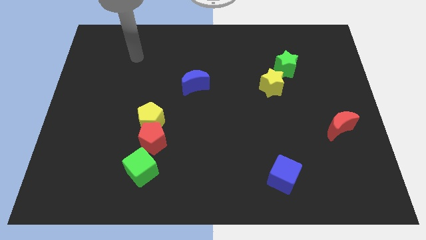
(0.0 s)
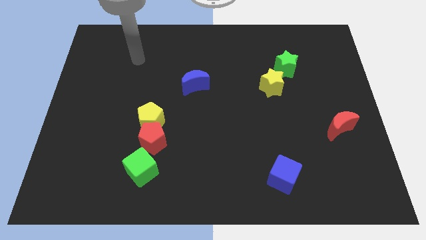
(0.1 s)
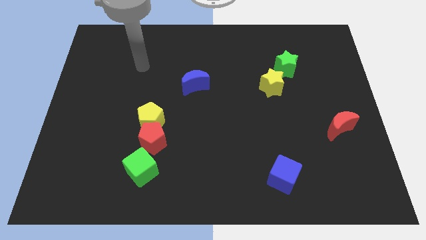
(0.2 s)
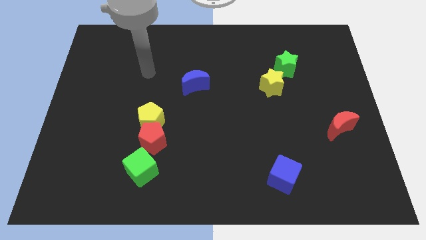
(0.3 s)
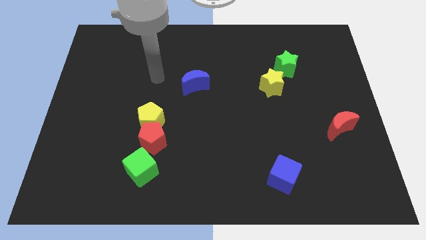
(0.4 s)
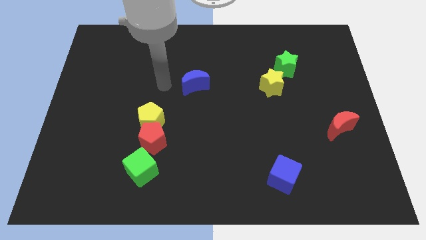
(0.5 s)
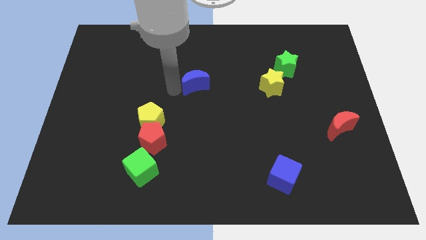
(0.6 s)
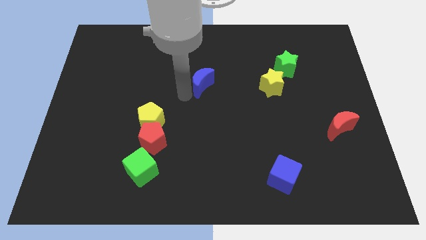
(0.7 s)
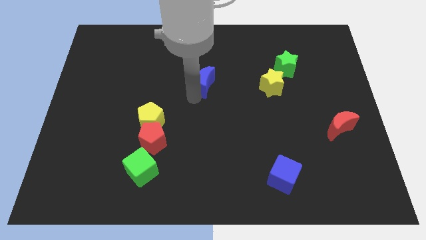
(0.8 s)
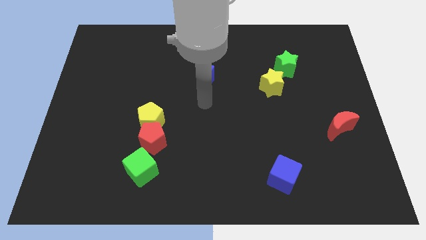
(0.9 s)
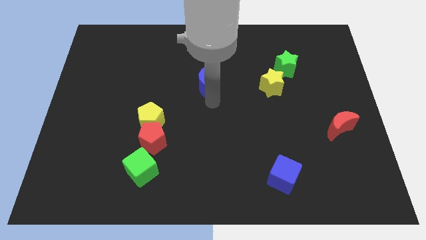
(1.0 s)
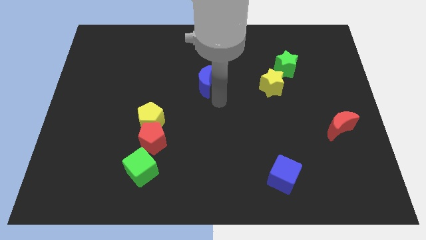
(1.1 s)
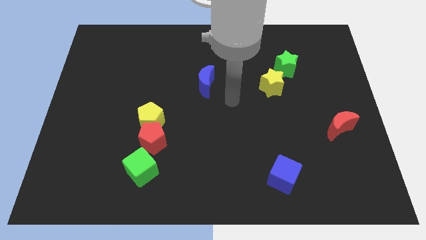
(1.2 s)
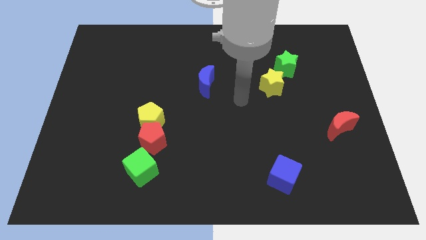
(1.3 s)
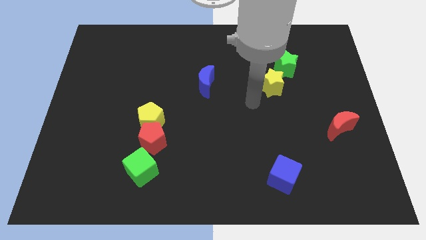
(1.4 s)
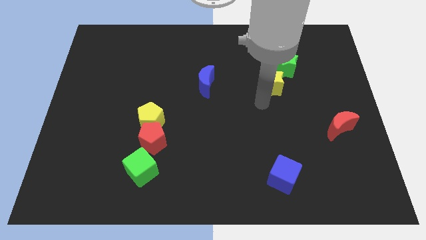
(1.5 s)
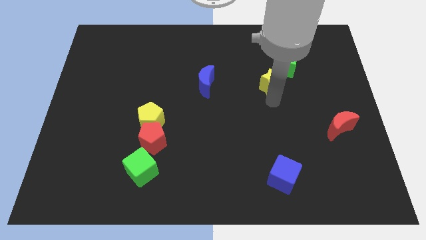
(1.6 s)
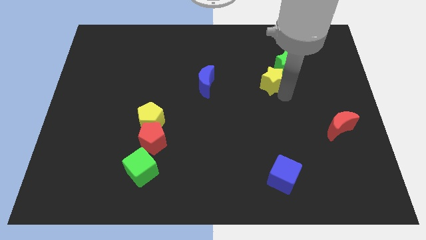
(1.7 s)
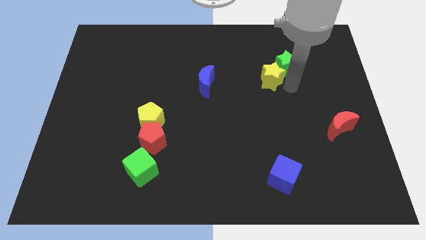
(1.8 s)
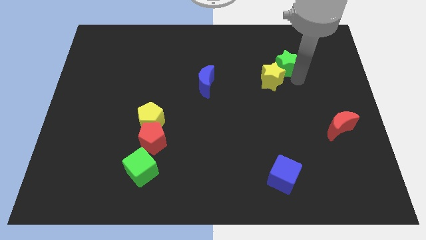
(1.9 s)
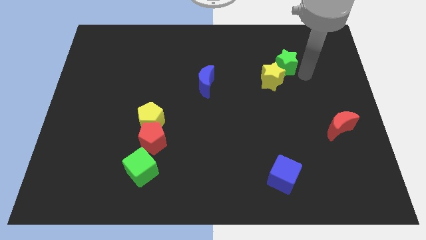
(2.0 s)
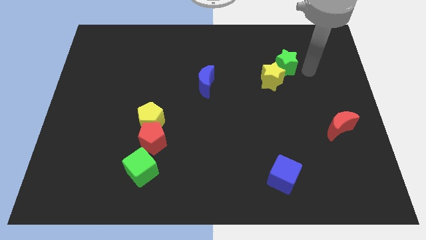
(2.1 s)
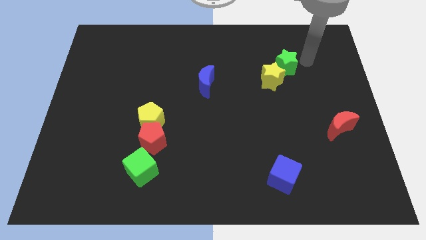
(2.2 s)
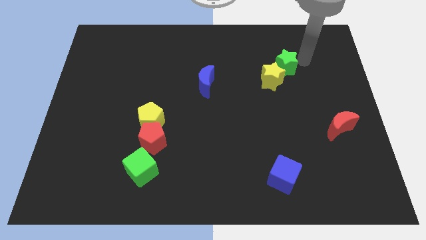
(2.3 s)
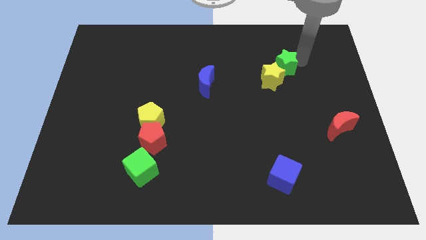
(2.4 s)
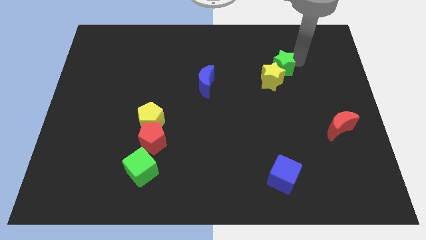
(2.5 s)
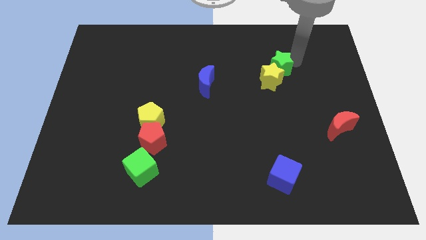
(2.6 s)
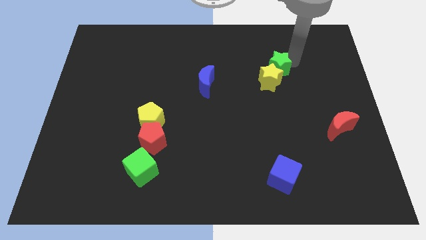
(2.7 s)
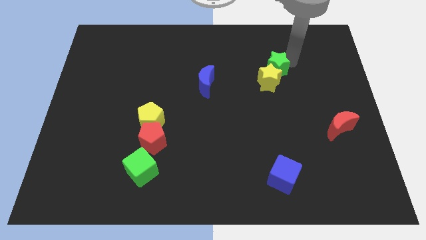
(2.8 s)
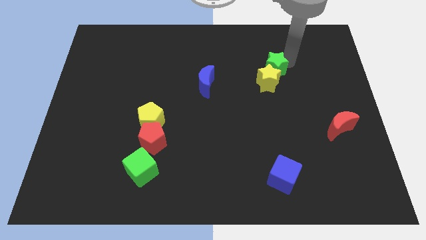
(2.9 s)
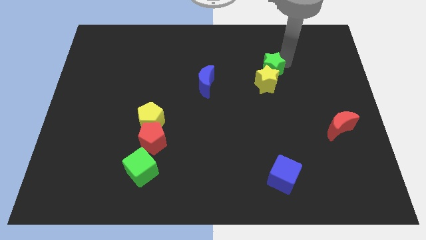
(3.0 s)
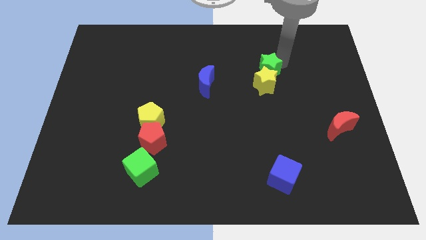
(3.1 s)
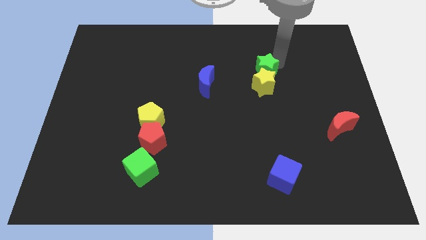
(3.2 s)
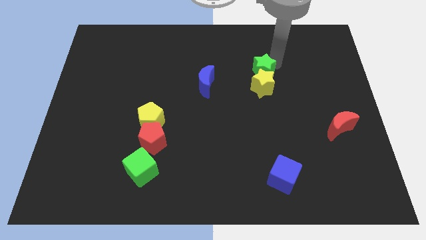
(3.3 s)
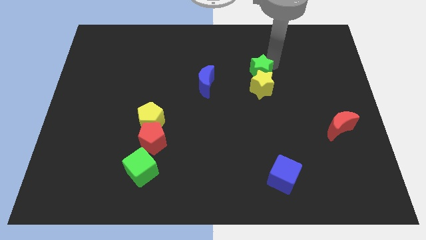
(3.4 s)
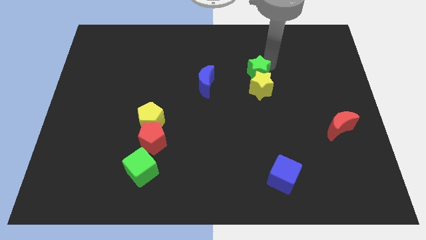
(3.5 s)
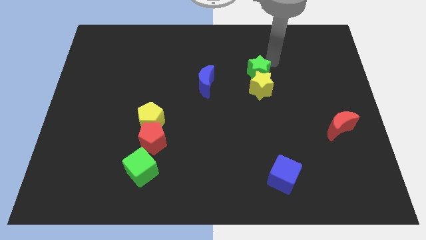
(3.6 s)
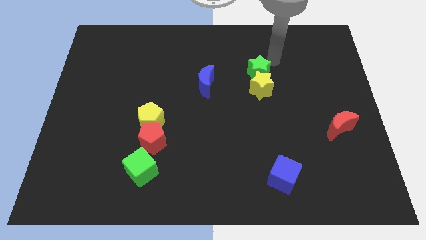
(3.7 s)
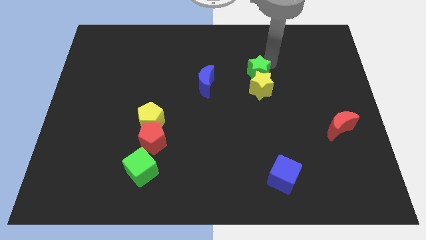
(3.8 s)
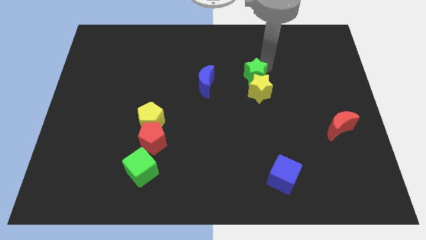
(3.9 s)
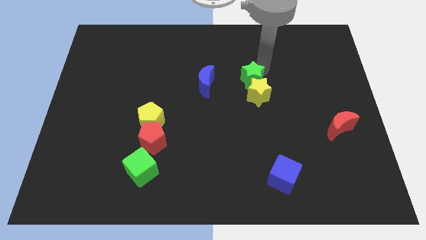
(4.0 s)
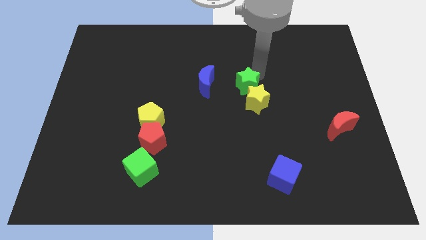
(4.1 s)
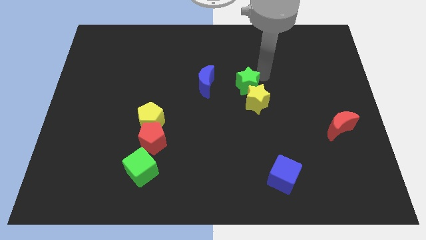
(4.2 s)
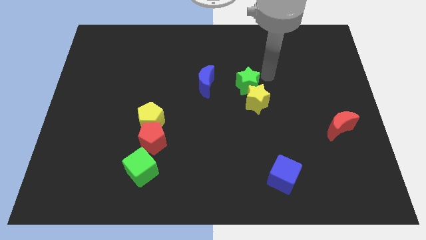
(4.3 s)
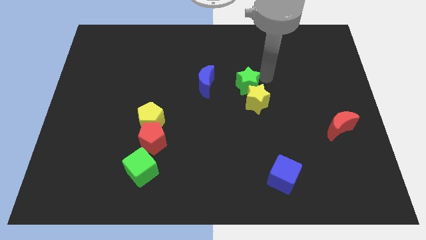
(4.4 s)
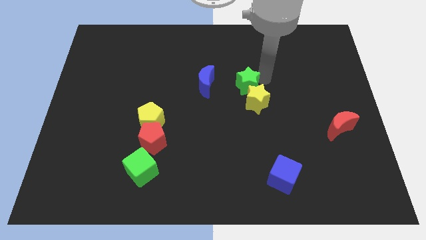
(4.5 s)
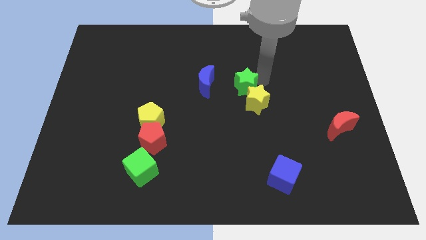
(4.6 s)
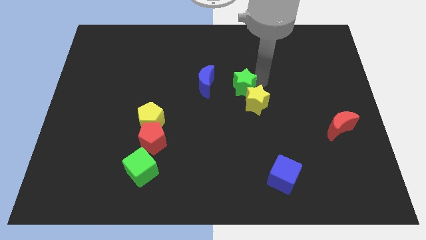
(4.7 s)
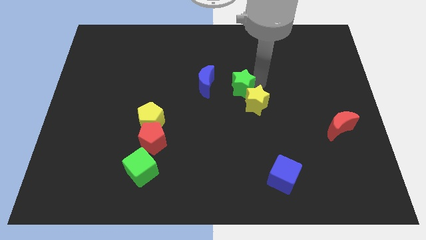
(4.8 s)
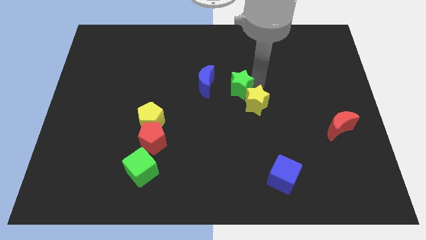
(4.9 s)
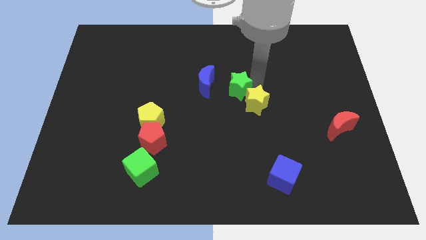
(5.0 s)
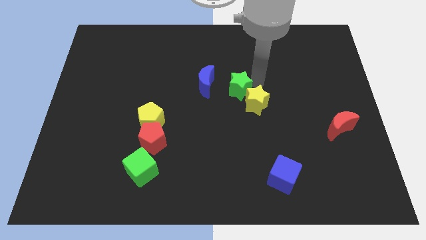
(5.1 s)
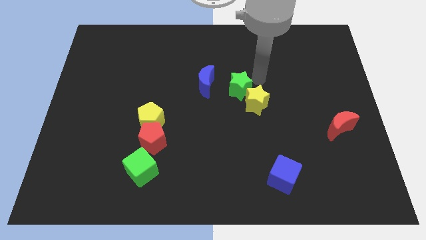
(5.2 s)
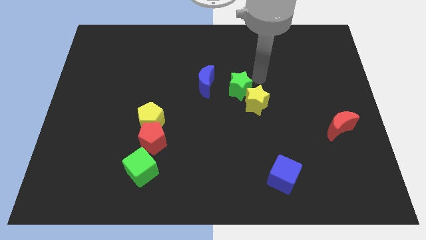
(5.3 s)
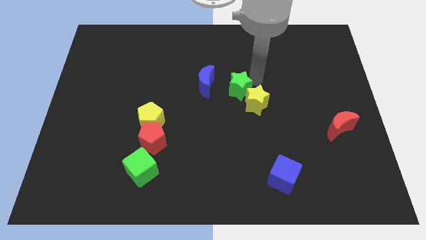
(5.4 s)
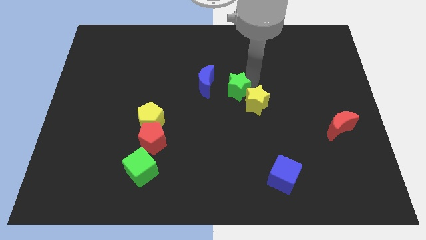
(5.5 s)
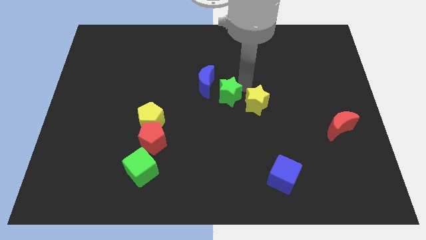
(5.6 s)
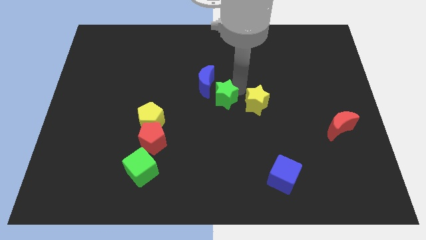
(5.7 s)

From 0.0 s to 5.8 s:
put the green star to the bottom of the blue moon

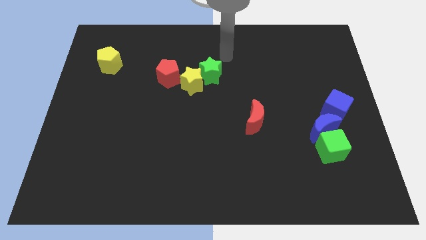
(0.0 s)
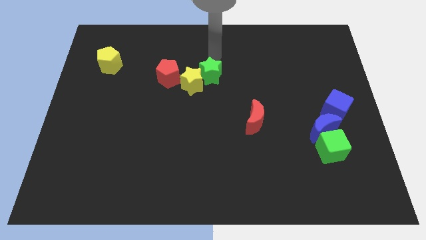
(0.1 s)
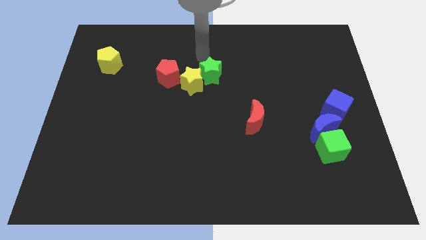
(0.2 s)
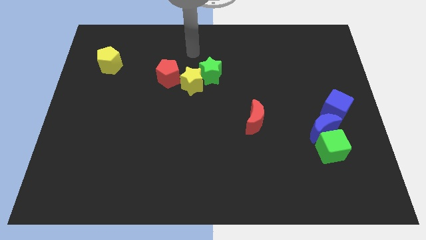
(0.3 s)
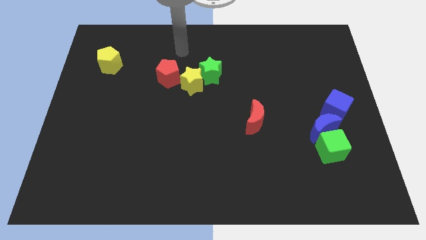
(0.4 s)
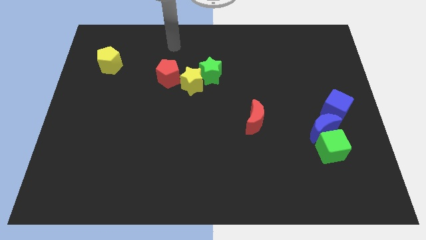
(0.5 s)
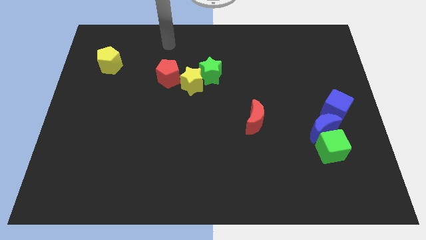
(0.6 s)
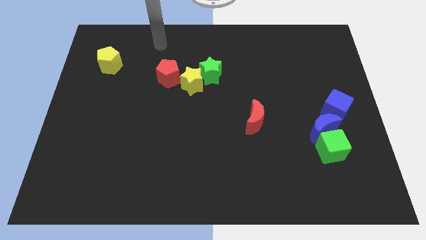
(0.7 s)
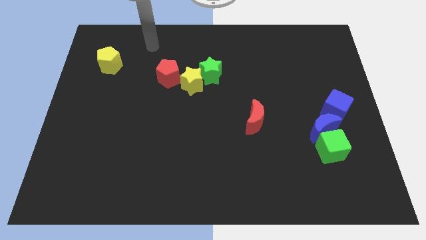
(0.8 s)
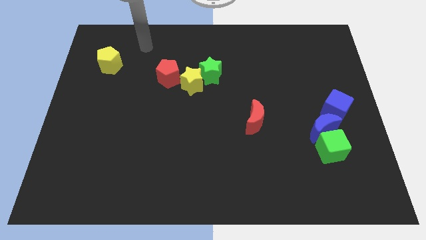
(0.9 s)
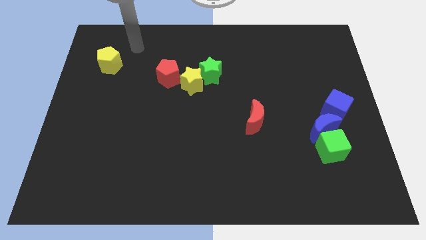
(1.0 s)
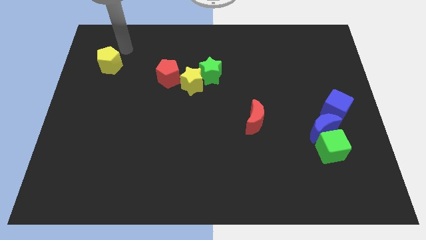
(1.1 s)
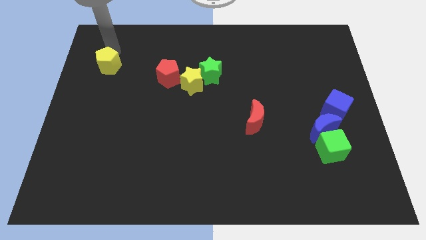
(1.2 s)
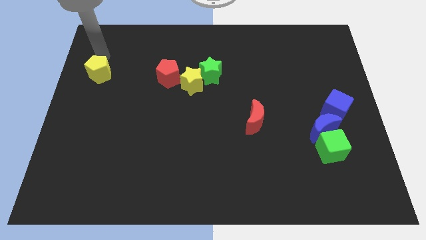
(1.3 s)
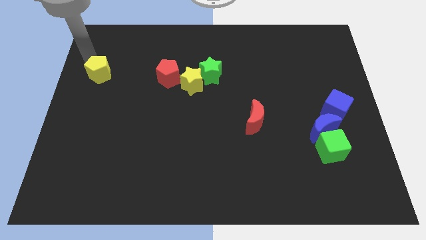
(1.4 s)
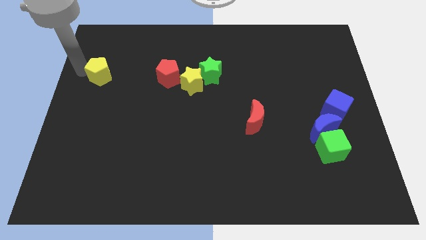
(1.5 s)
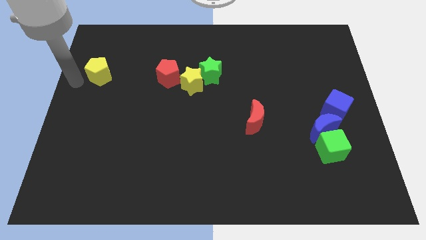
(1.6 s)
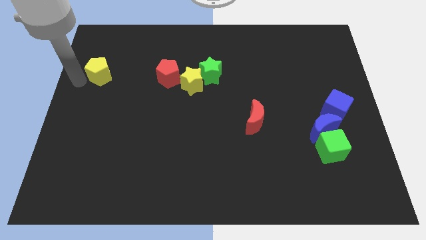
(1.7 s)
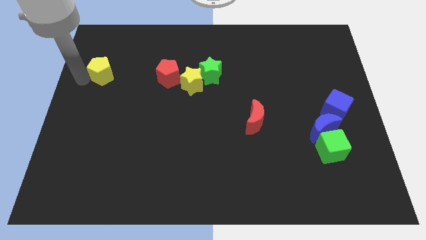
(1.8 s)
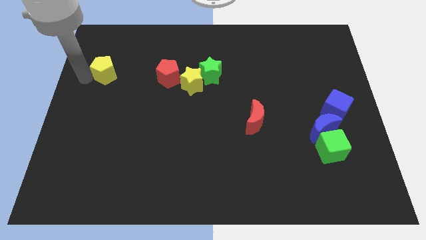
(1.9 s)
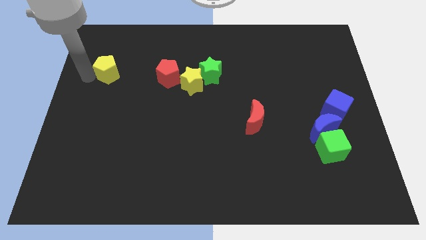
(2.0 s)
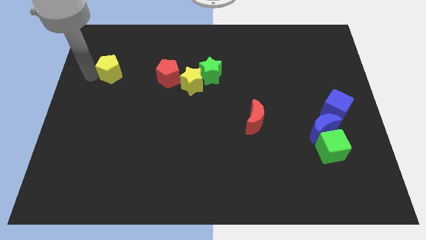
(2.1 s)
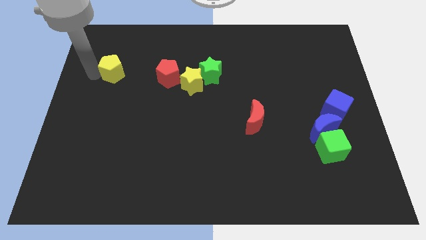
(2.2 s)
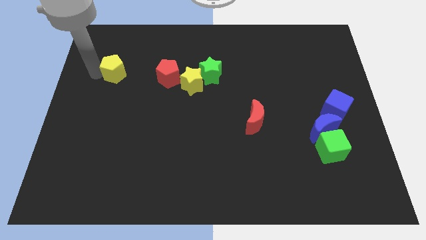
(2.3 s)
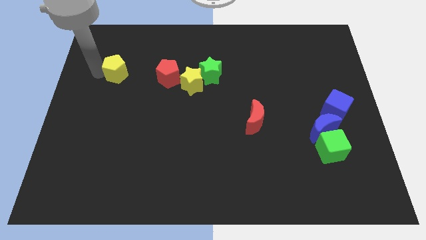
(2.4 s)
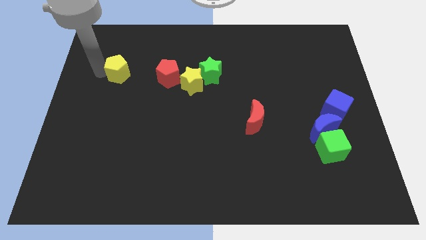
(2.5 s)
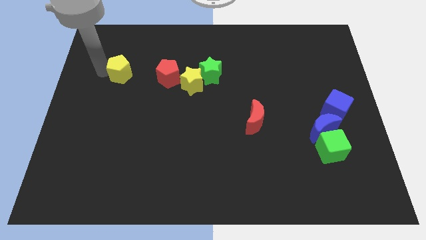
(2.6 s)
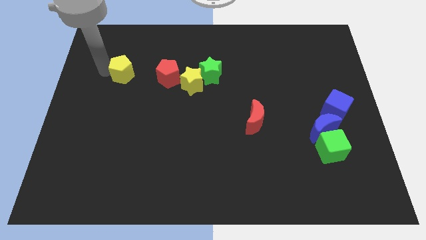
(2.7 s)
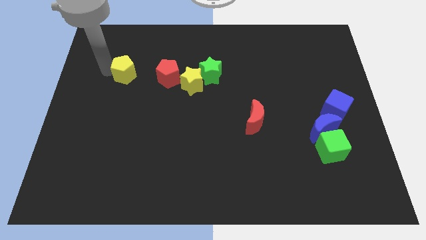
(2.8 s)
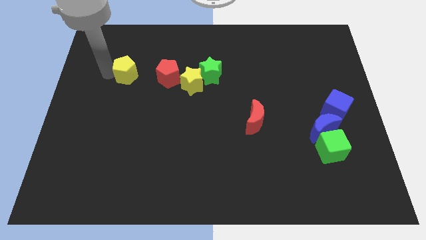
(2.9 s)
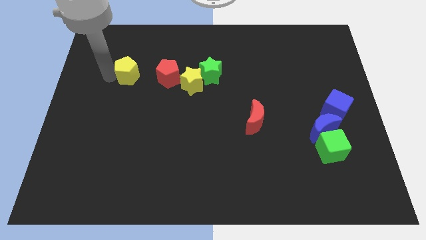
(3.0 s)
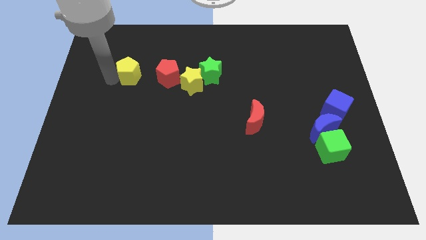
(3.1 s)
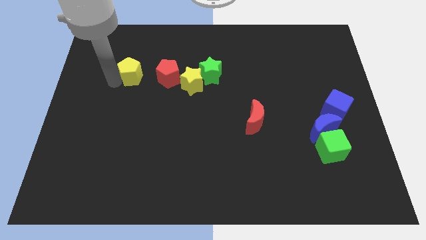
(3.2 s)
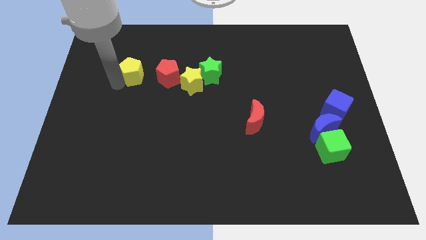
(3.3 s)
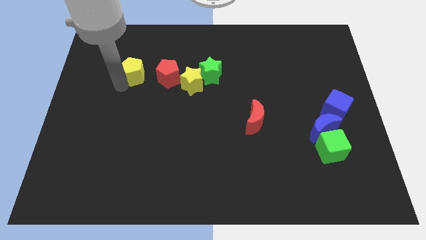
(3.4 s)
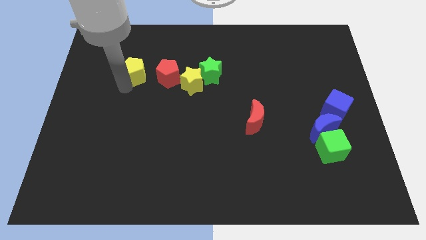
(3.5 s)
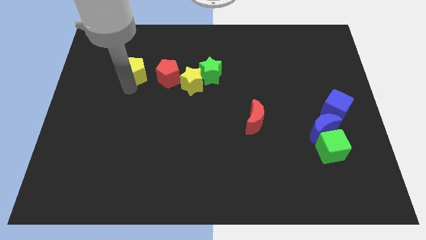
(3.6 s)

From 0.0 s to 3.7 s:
put the yellow pentagon to the top left of the red pentagon
